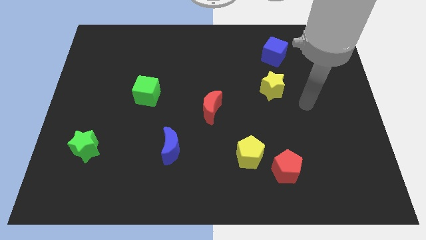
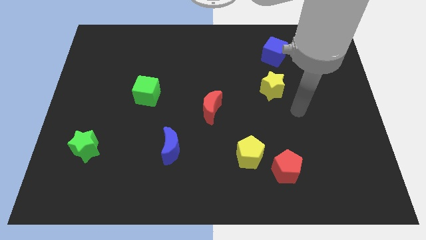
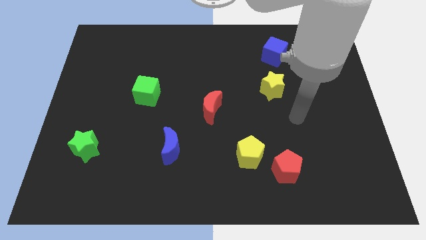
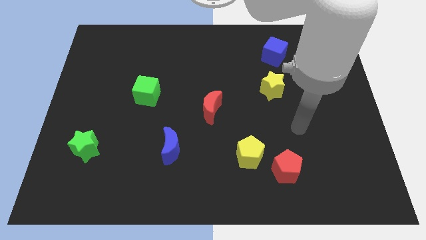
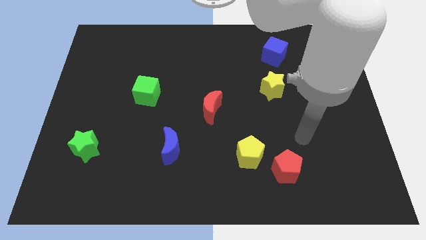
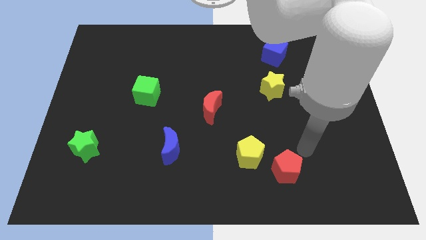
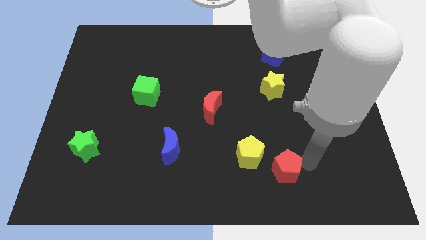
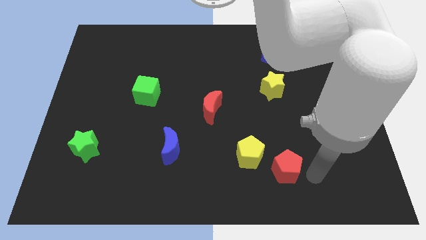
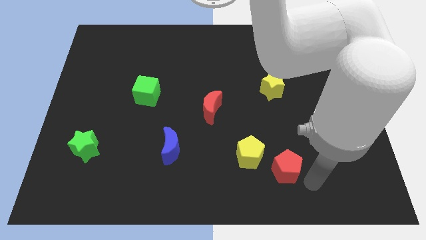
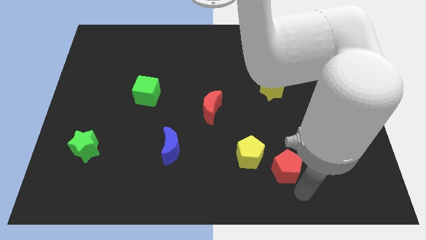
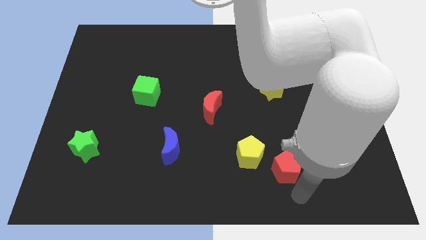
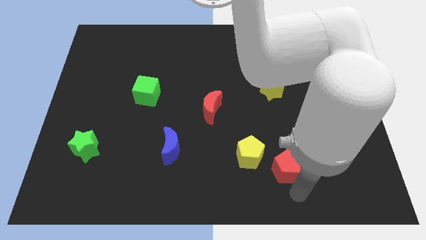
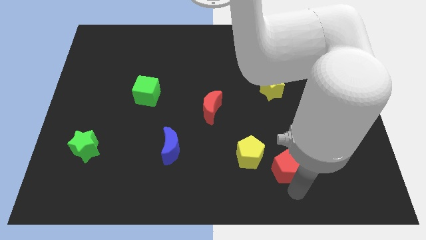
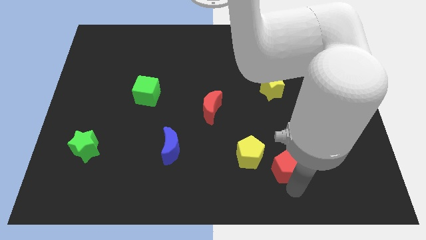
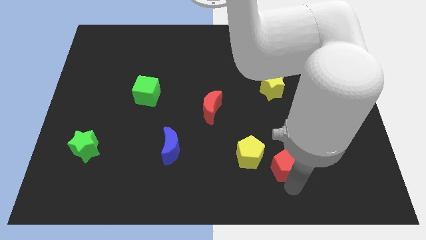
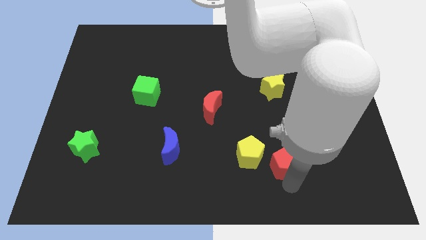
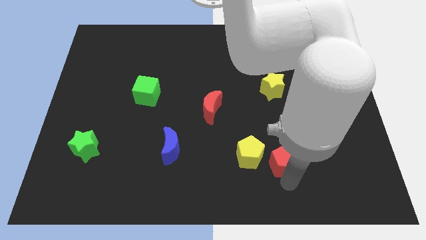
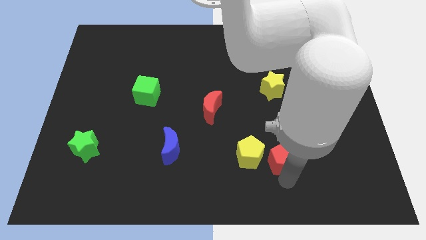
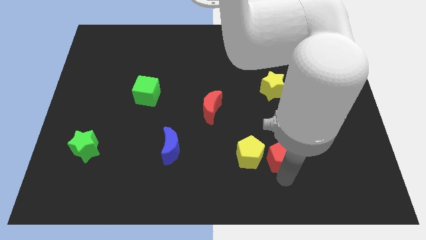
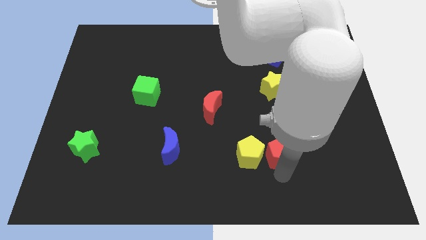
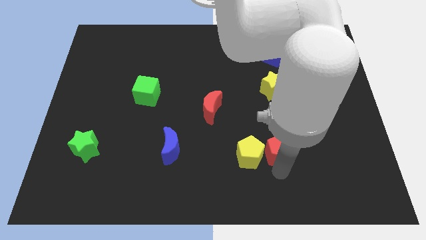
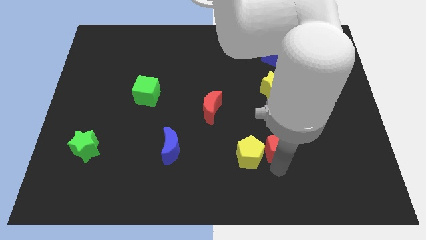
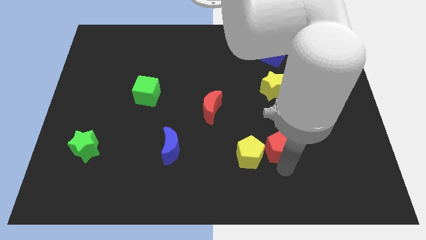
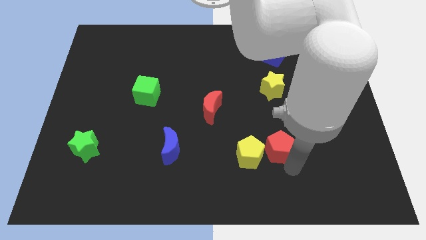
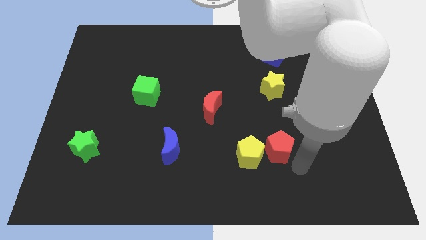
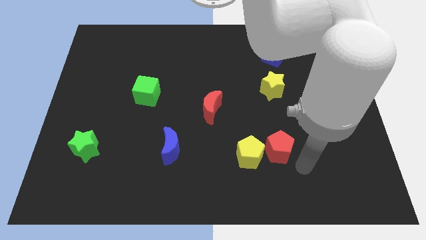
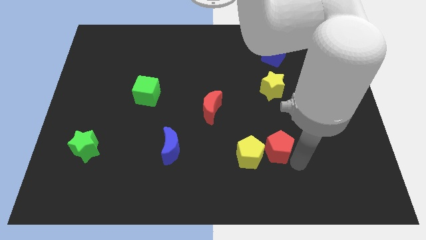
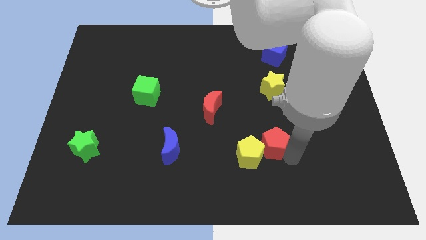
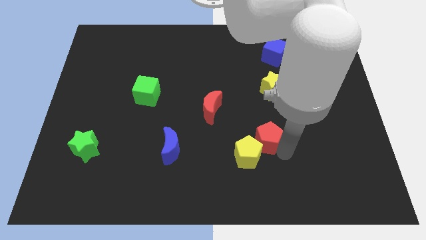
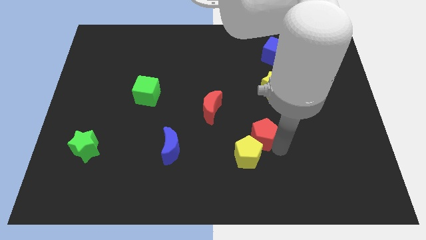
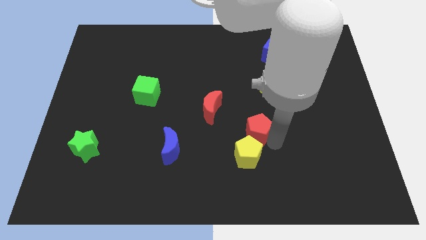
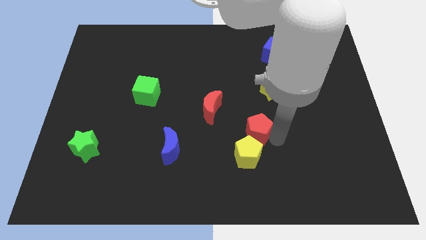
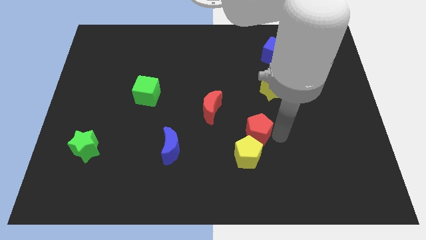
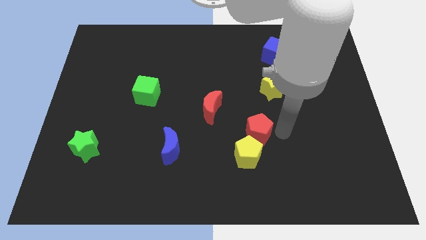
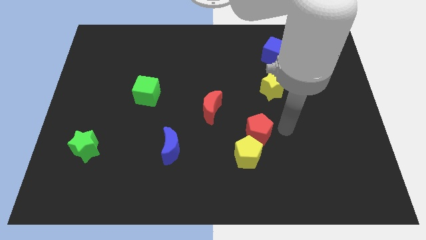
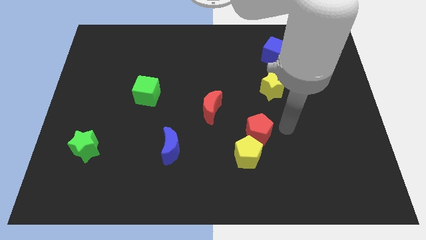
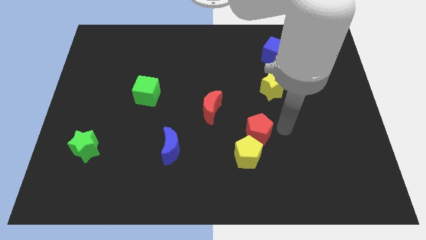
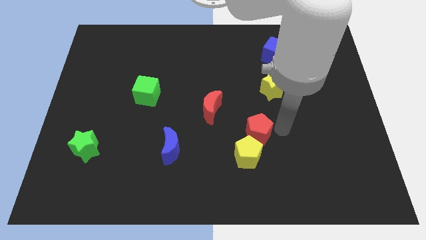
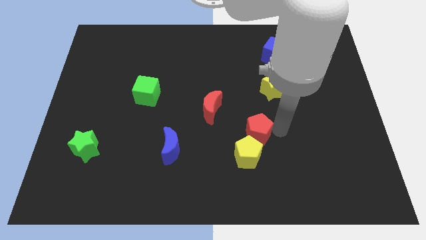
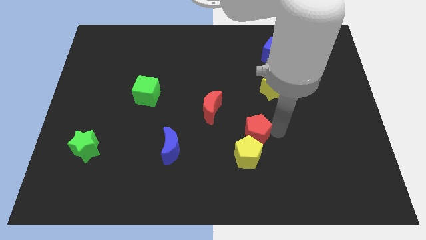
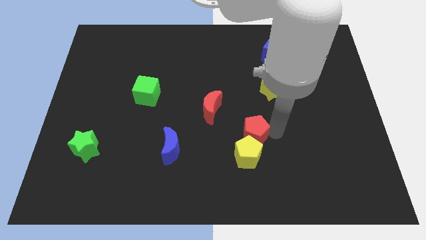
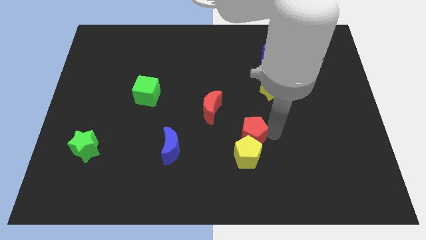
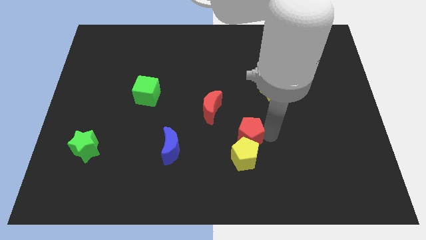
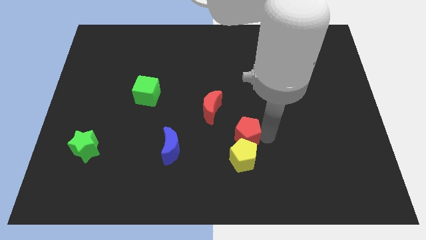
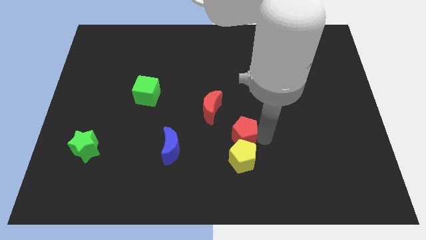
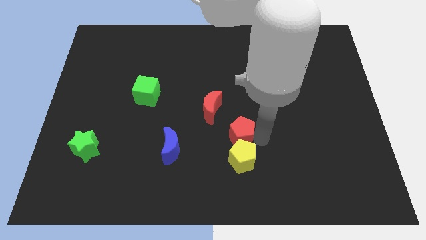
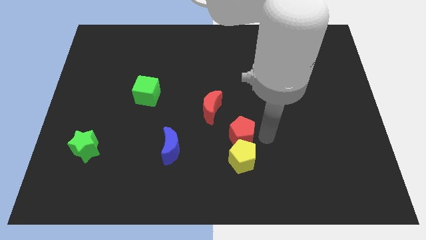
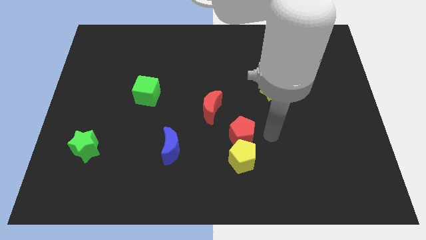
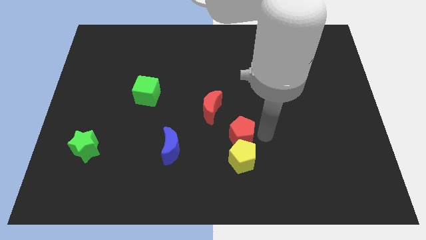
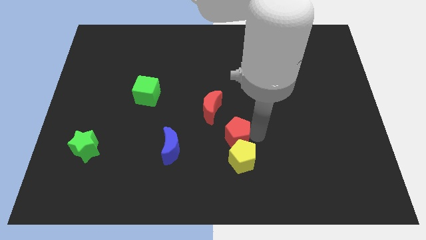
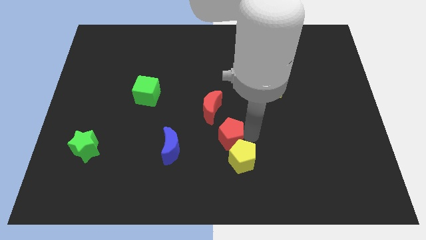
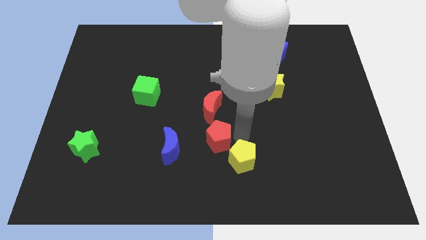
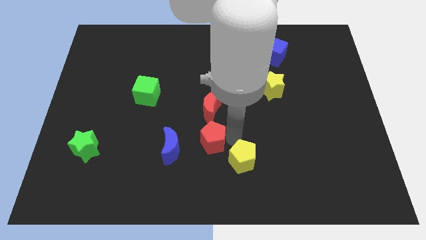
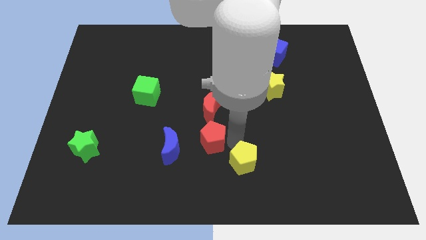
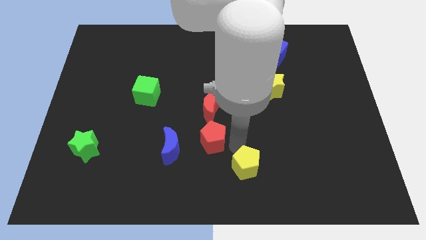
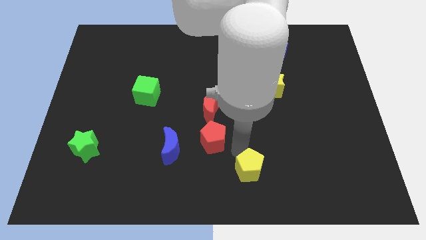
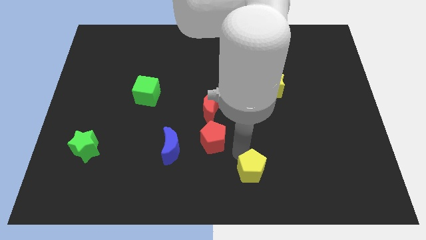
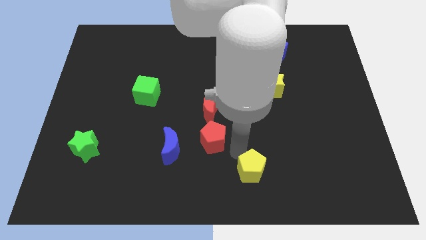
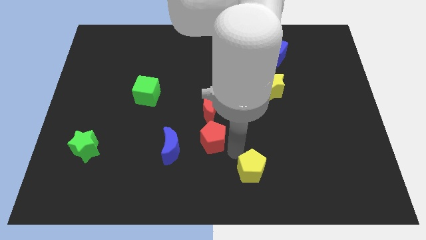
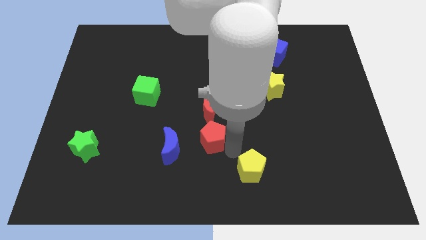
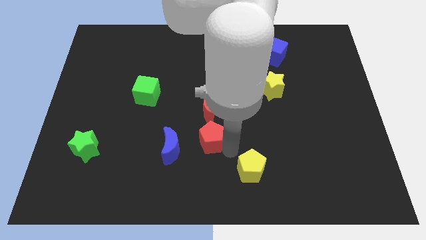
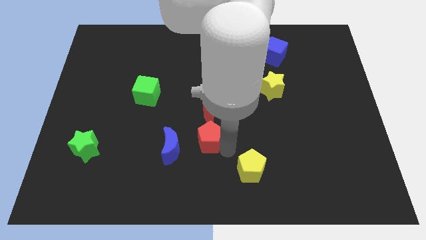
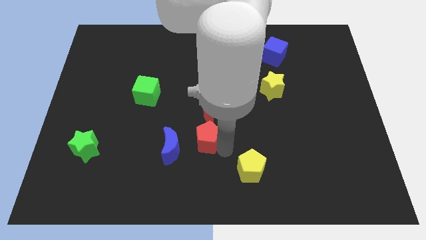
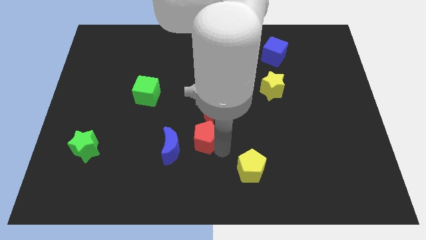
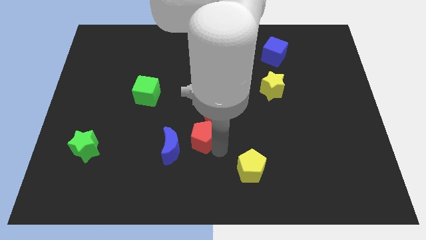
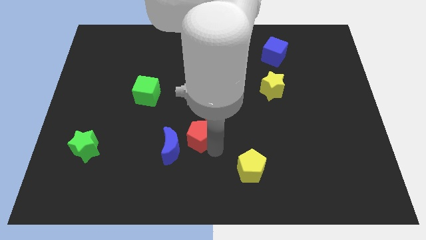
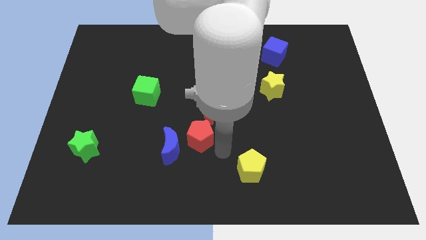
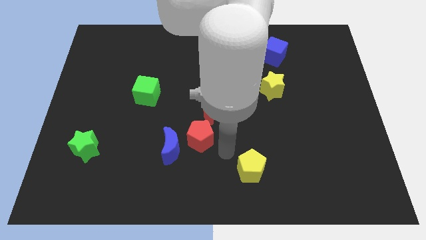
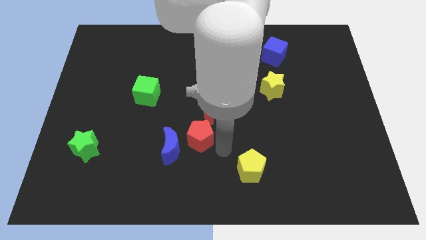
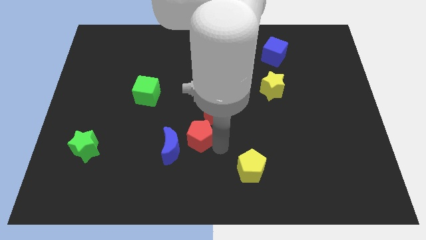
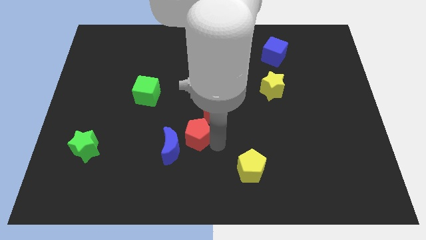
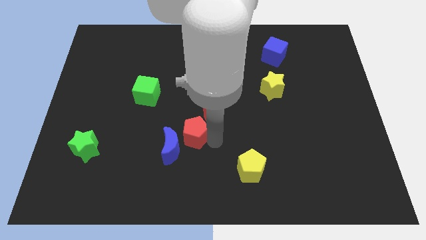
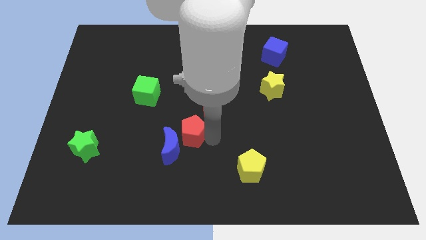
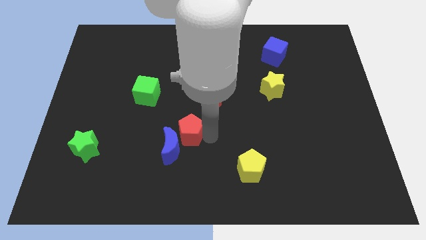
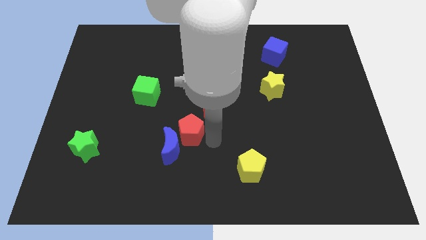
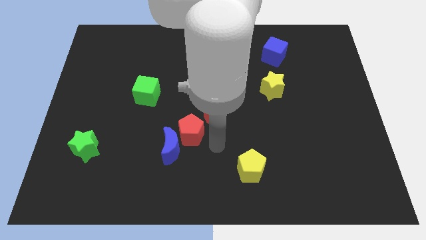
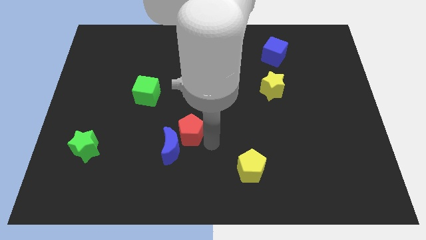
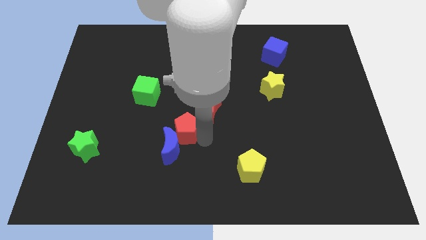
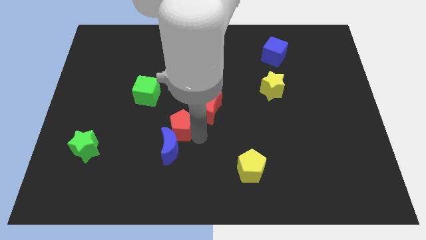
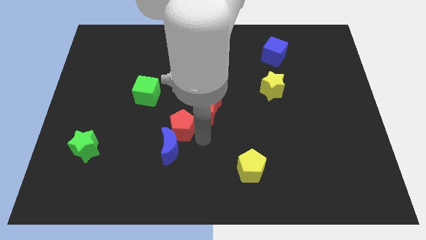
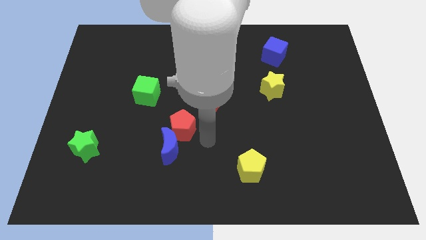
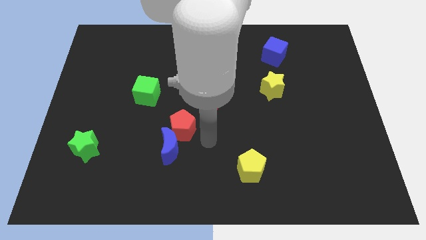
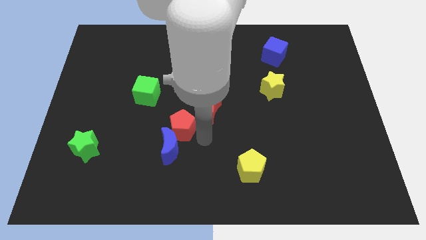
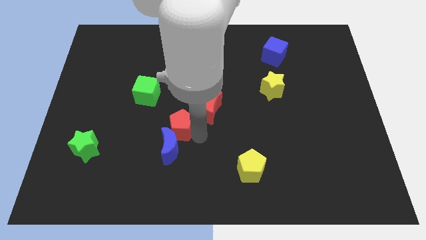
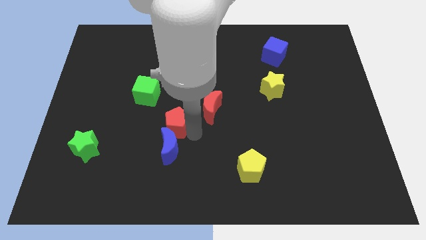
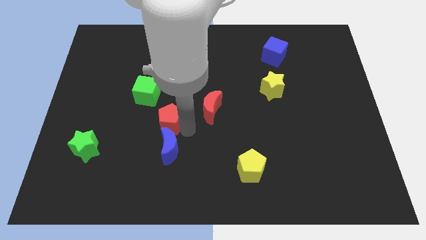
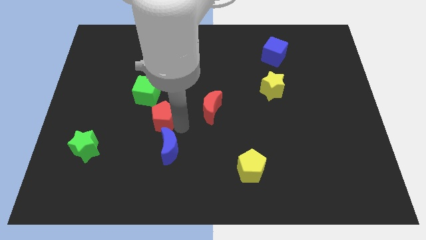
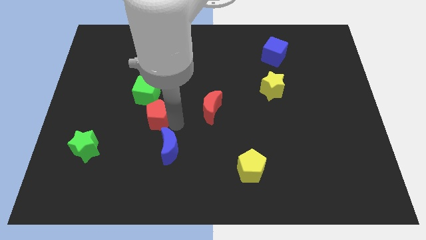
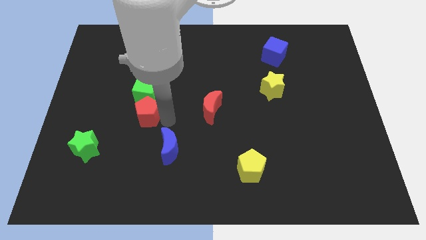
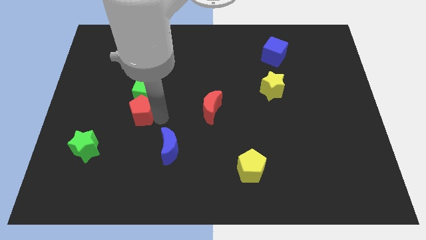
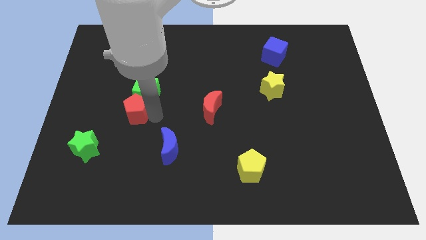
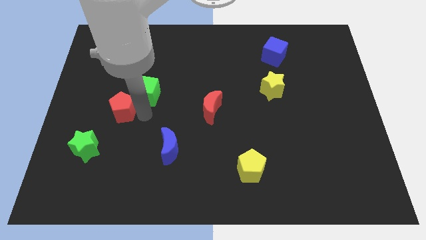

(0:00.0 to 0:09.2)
put the red pentagon left of the green cube
